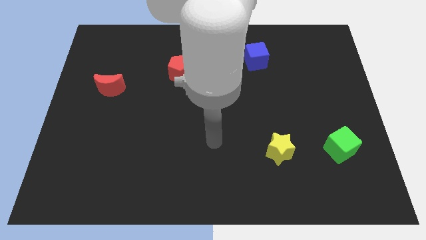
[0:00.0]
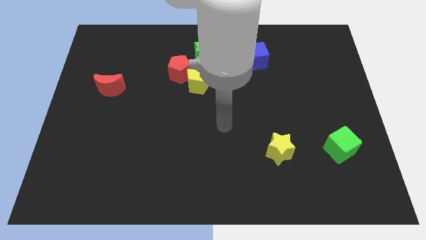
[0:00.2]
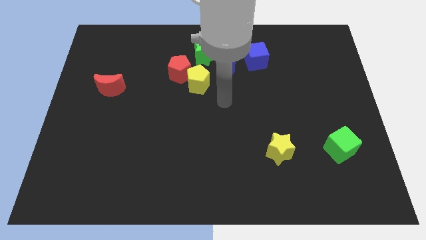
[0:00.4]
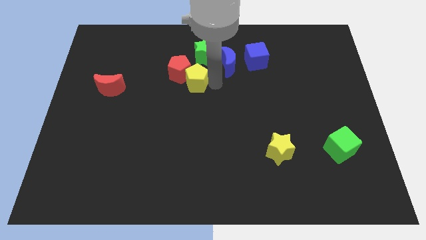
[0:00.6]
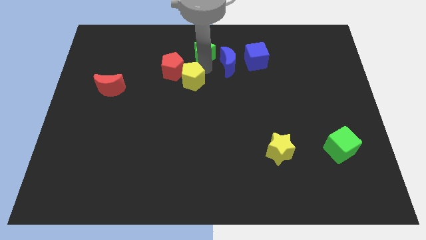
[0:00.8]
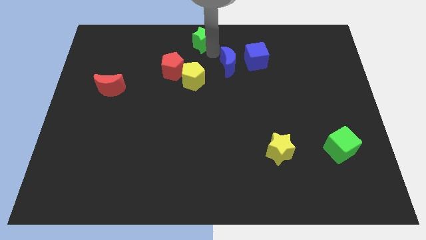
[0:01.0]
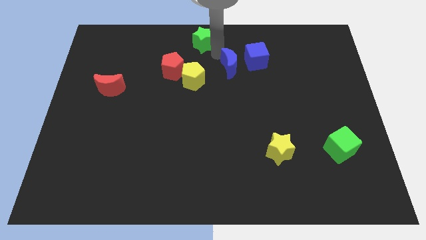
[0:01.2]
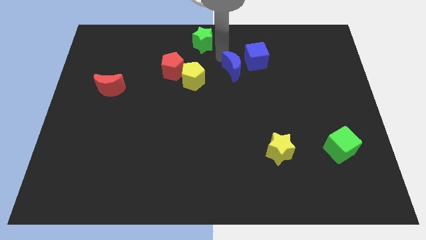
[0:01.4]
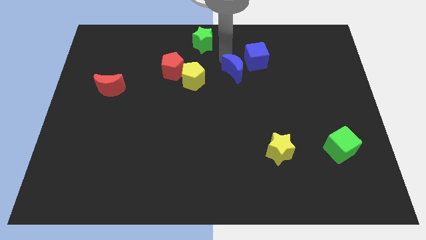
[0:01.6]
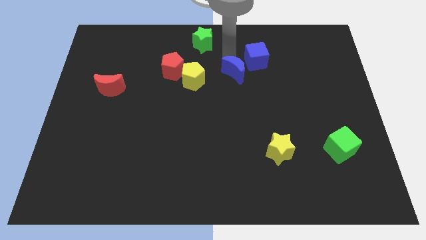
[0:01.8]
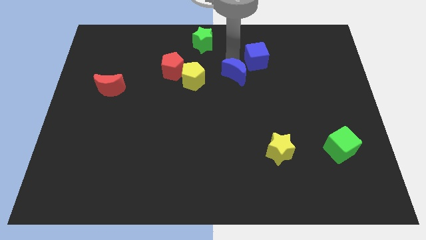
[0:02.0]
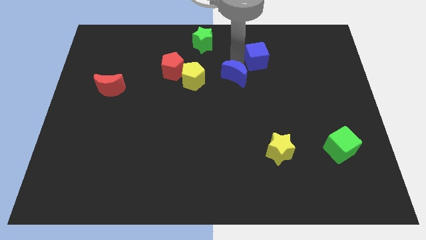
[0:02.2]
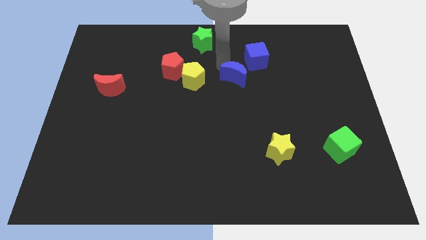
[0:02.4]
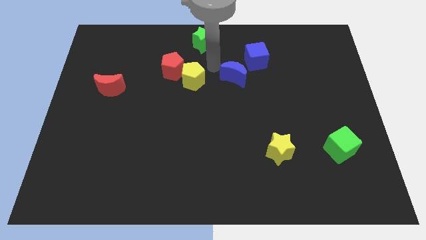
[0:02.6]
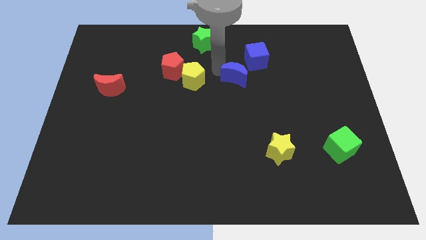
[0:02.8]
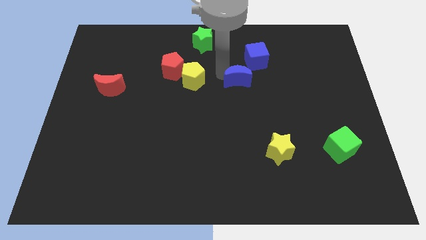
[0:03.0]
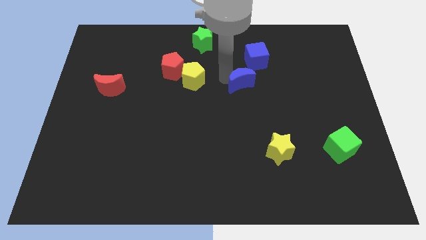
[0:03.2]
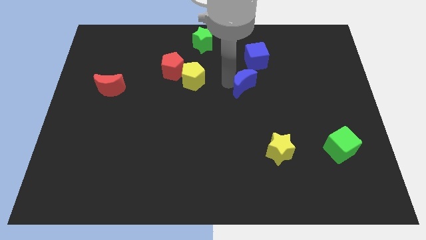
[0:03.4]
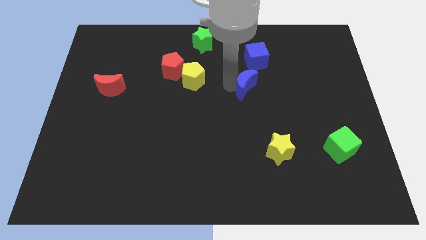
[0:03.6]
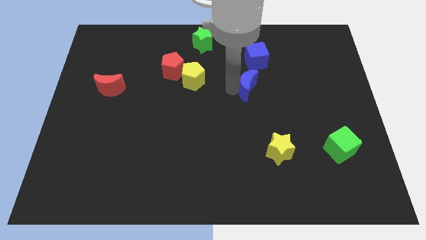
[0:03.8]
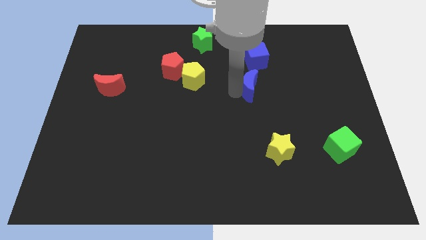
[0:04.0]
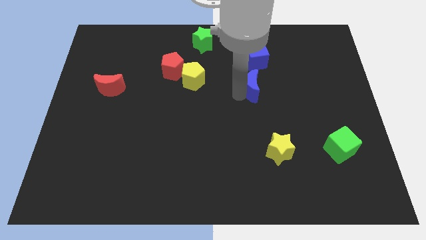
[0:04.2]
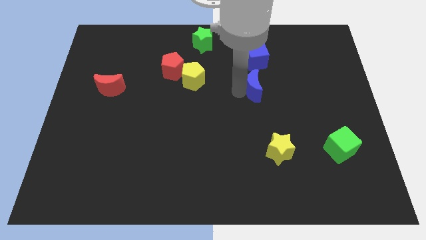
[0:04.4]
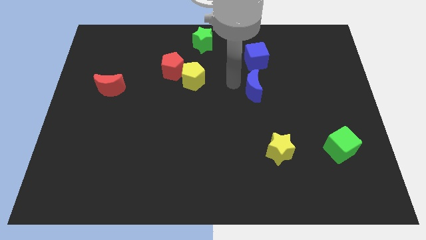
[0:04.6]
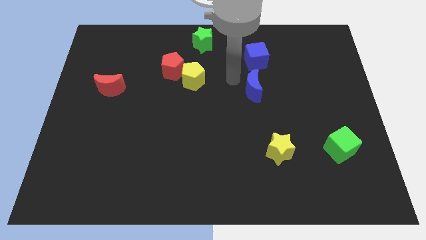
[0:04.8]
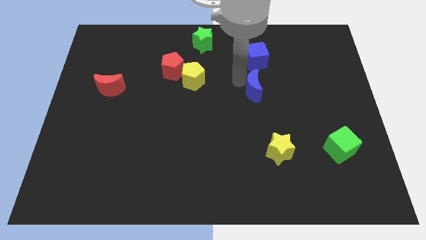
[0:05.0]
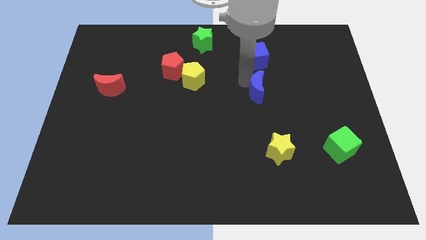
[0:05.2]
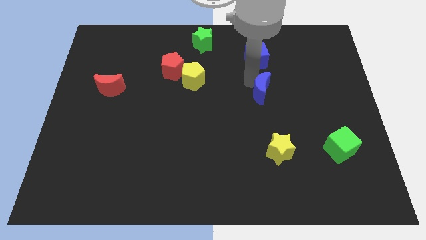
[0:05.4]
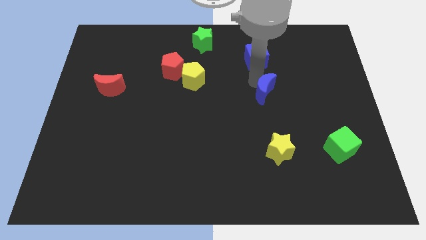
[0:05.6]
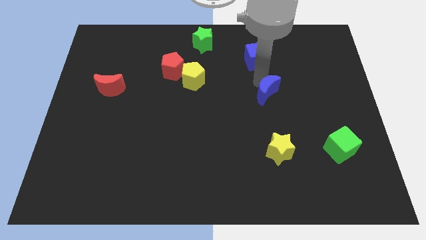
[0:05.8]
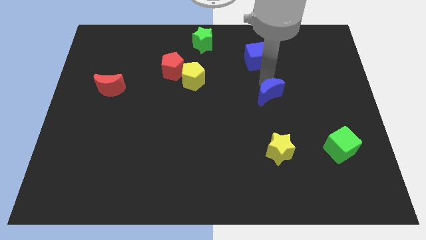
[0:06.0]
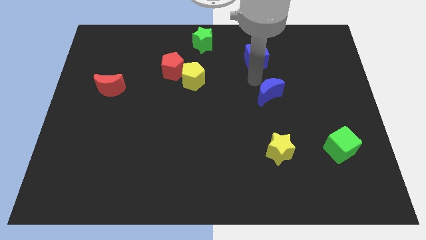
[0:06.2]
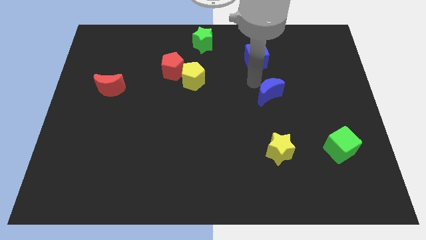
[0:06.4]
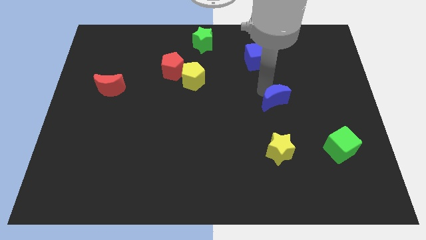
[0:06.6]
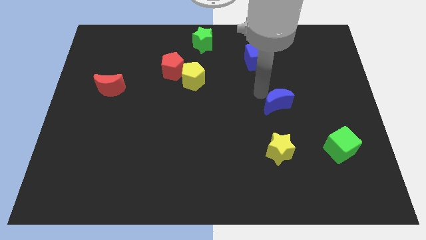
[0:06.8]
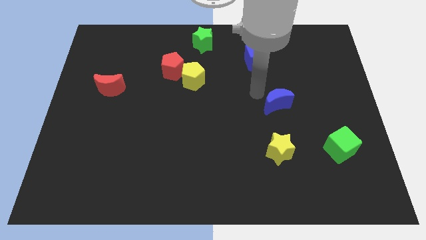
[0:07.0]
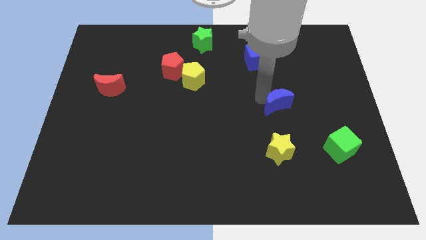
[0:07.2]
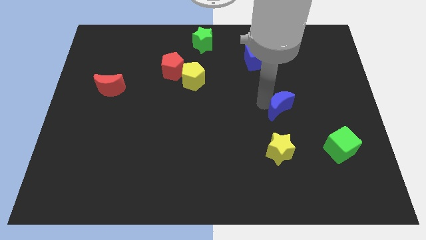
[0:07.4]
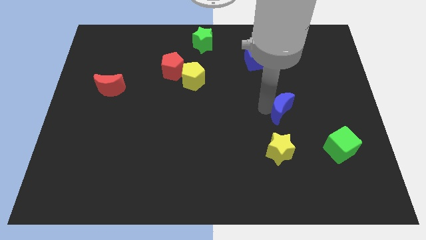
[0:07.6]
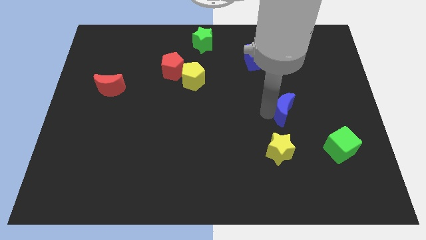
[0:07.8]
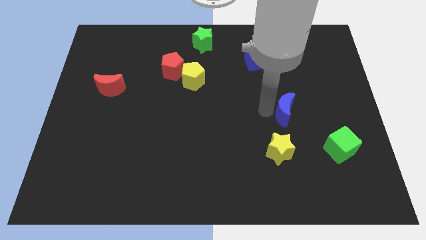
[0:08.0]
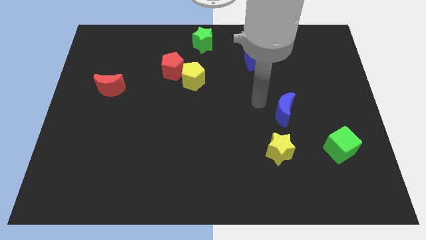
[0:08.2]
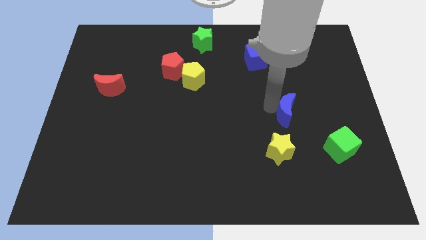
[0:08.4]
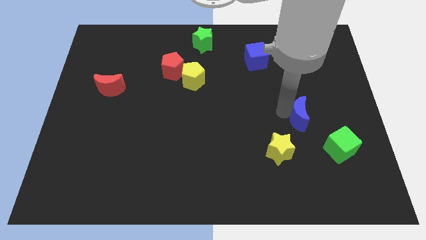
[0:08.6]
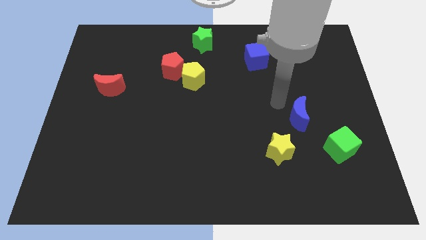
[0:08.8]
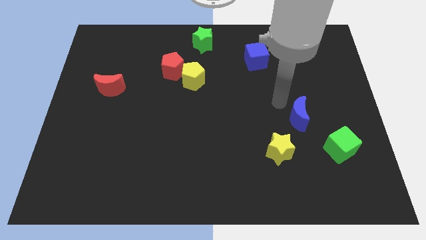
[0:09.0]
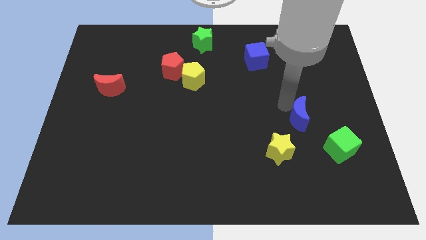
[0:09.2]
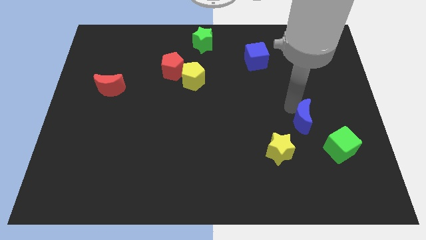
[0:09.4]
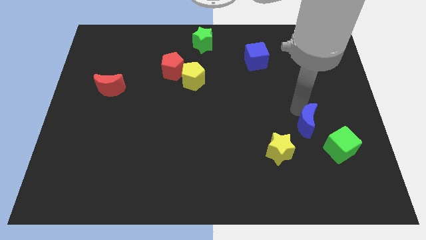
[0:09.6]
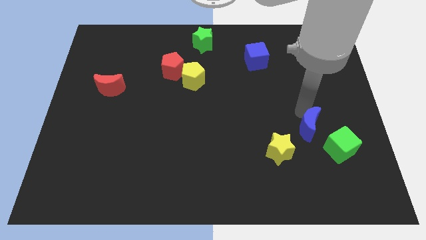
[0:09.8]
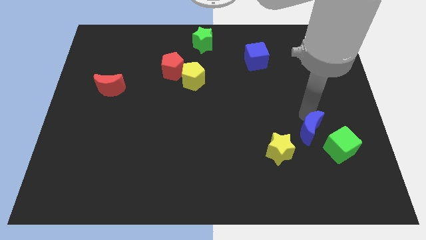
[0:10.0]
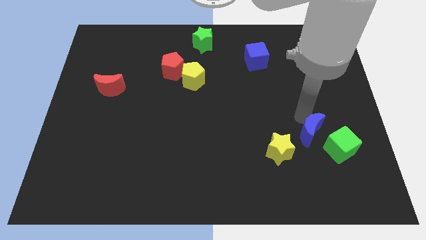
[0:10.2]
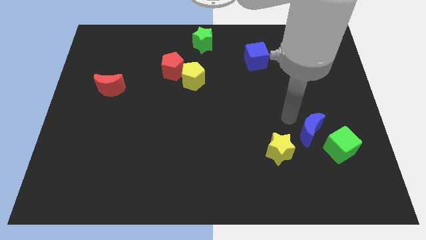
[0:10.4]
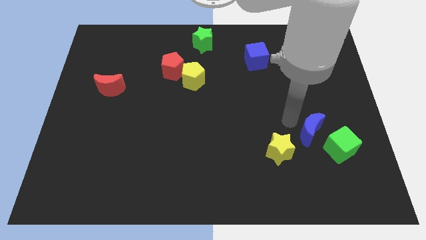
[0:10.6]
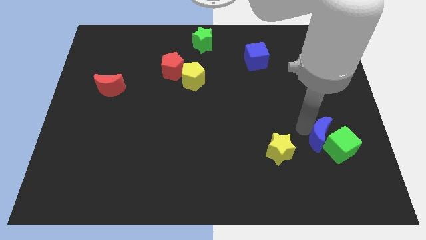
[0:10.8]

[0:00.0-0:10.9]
put the blue moon next to the green cube

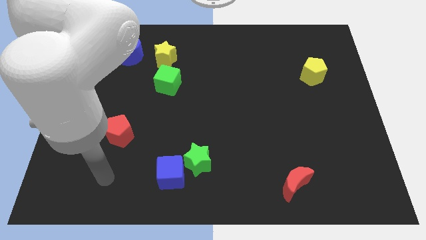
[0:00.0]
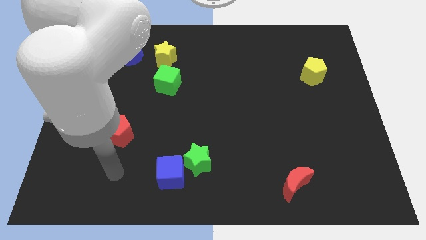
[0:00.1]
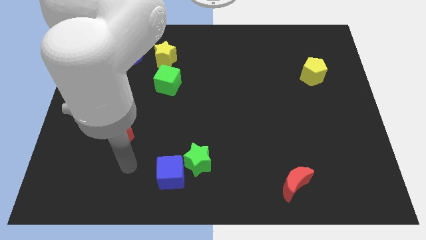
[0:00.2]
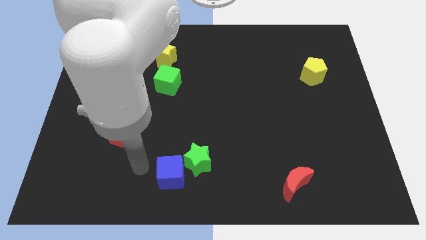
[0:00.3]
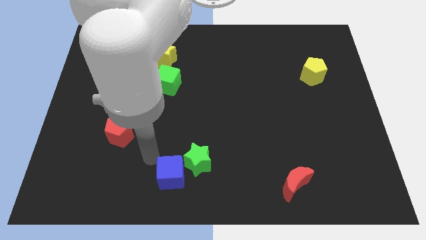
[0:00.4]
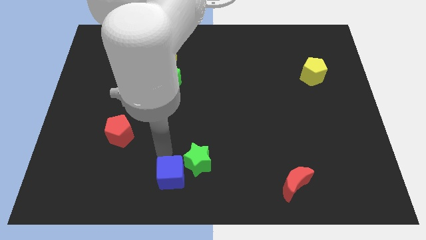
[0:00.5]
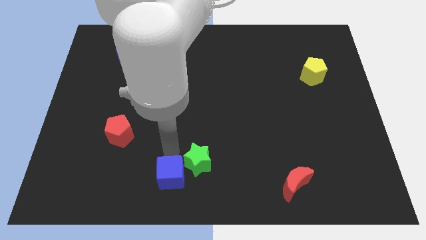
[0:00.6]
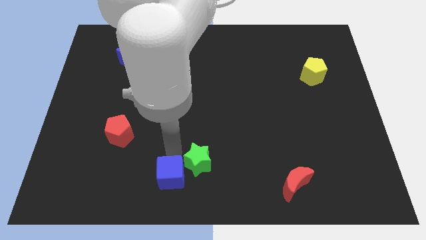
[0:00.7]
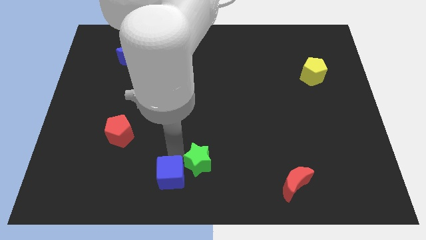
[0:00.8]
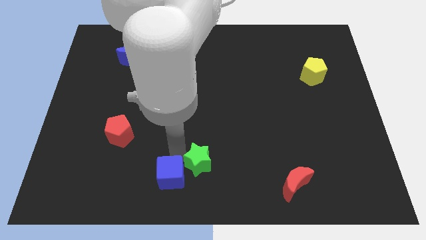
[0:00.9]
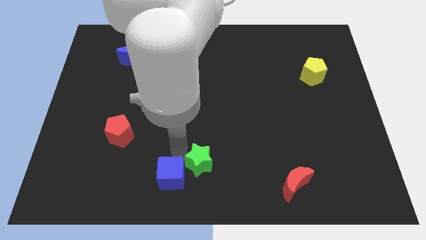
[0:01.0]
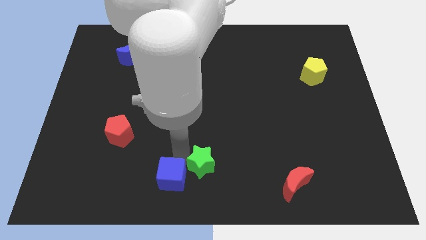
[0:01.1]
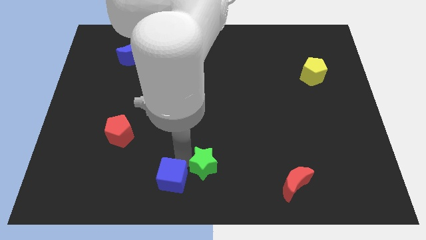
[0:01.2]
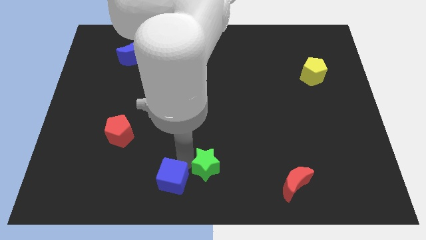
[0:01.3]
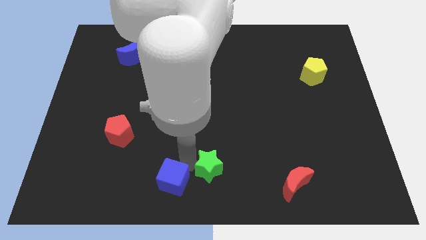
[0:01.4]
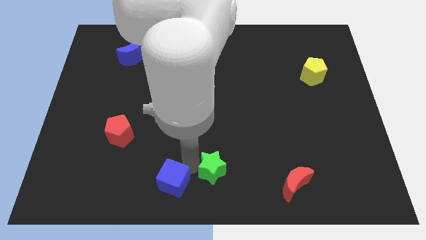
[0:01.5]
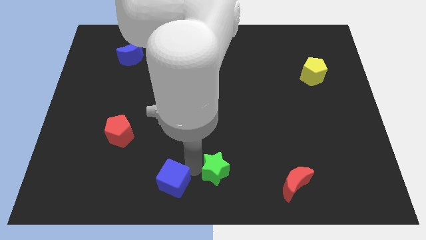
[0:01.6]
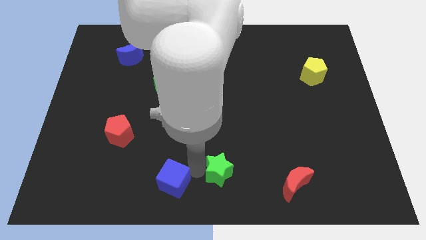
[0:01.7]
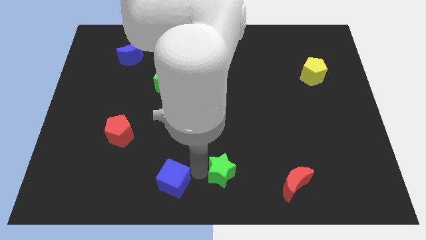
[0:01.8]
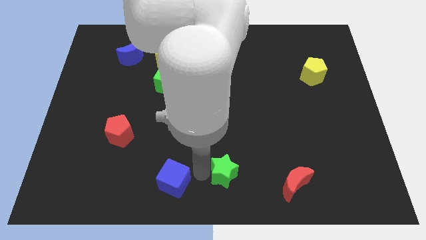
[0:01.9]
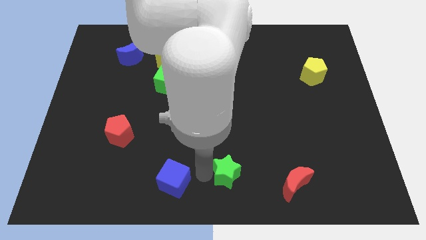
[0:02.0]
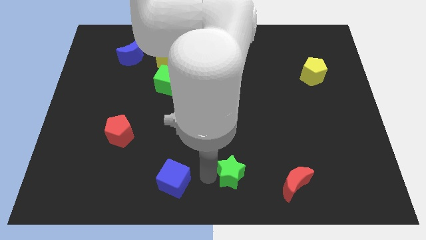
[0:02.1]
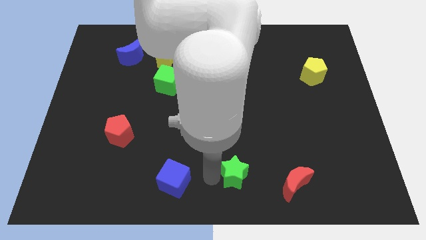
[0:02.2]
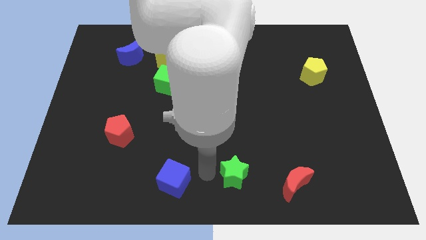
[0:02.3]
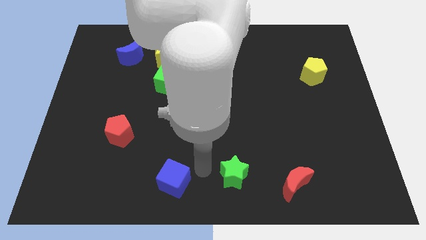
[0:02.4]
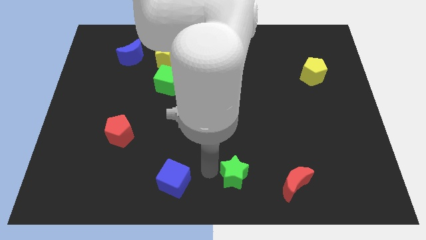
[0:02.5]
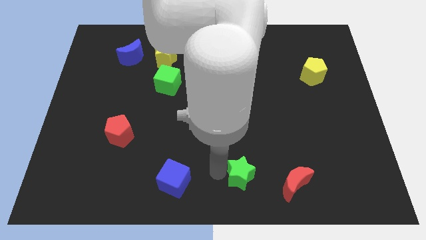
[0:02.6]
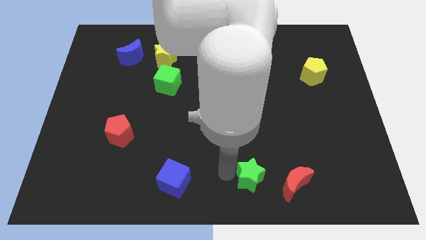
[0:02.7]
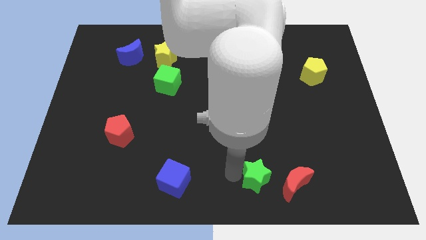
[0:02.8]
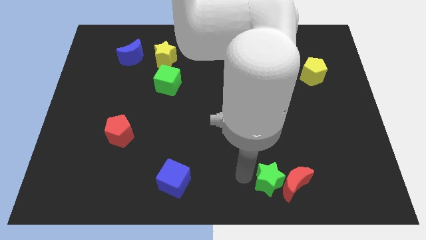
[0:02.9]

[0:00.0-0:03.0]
put the green star close to the red moon
